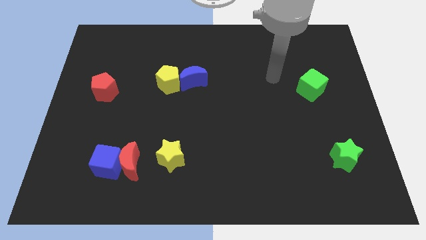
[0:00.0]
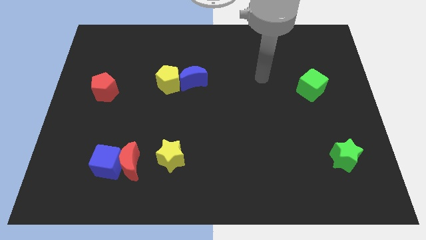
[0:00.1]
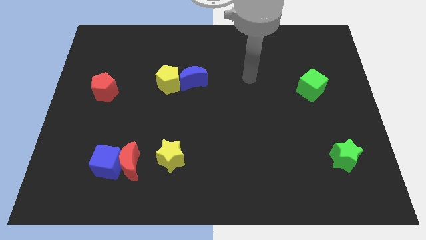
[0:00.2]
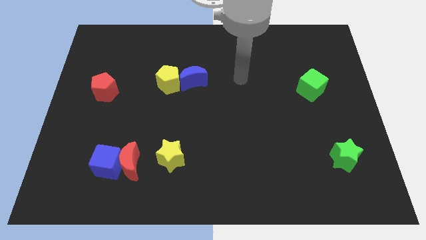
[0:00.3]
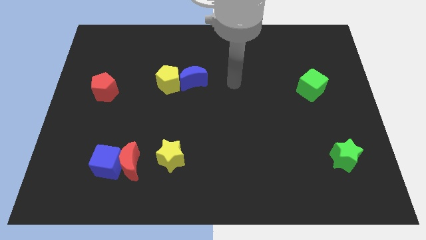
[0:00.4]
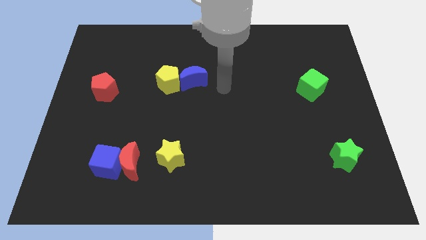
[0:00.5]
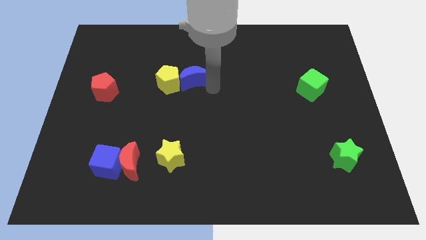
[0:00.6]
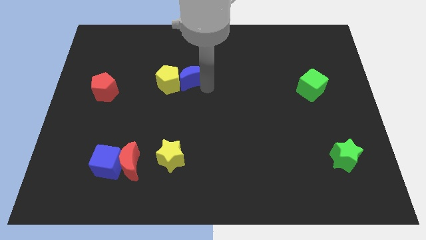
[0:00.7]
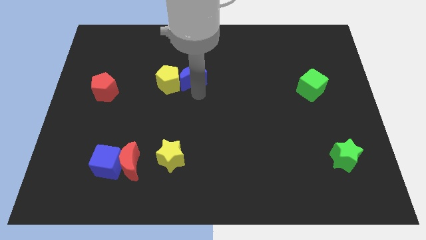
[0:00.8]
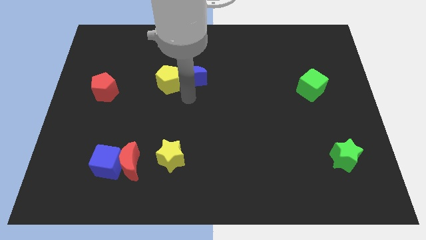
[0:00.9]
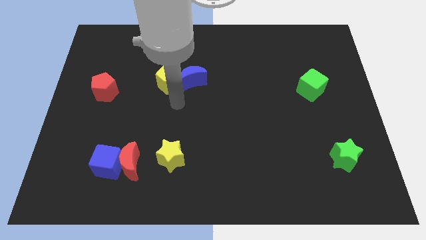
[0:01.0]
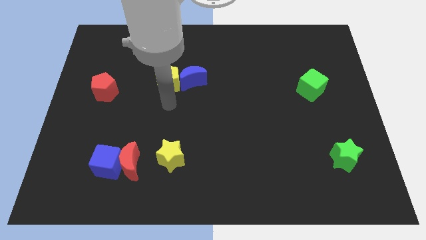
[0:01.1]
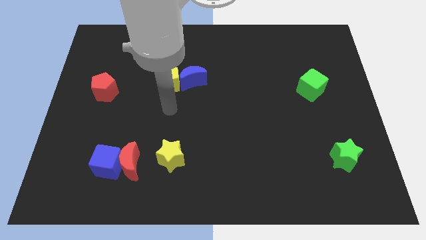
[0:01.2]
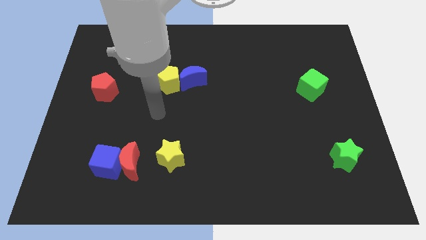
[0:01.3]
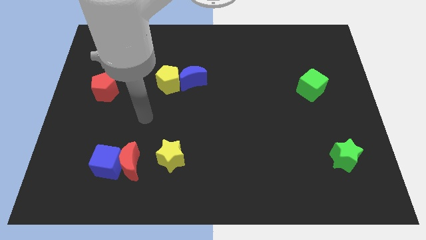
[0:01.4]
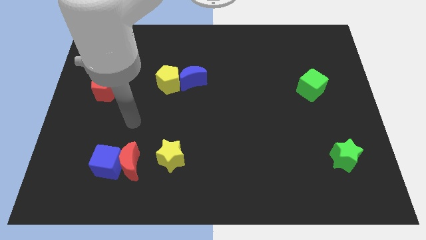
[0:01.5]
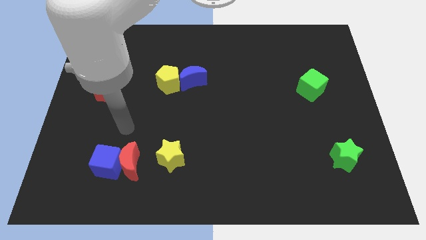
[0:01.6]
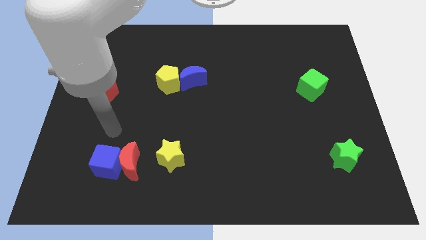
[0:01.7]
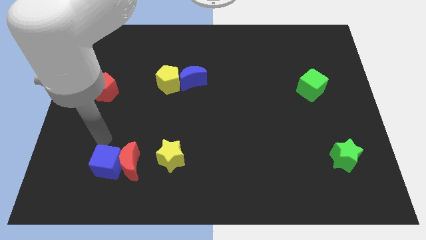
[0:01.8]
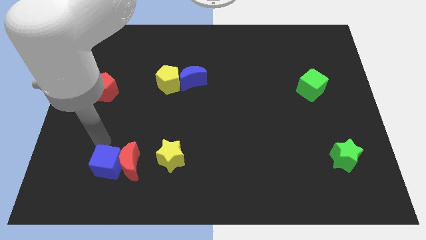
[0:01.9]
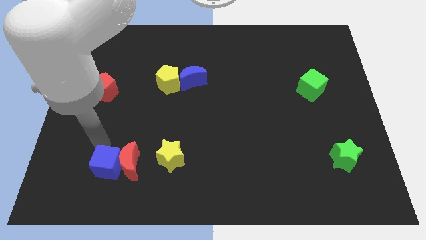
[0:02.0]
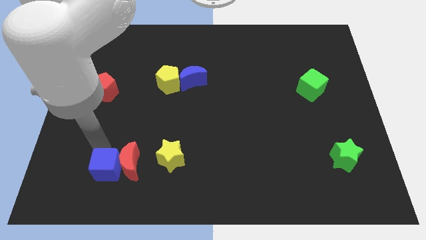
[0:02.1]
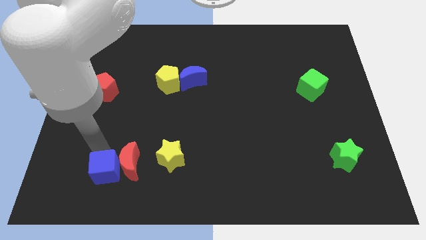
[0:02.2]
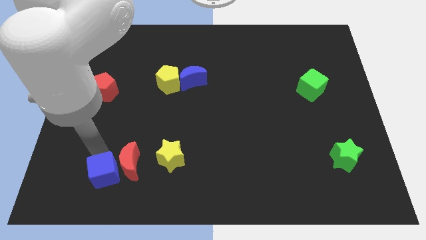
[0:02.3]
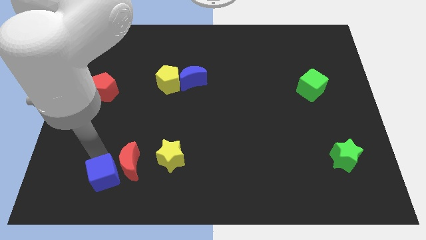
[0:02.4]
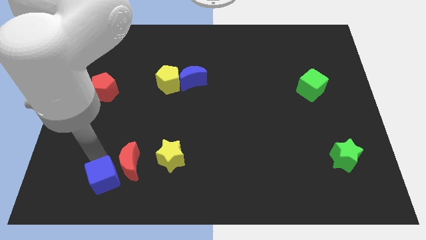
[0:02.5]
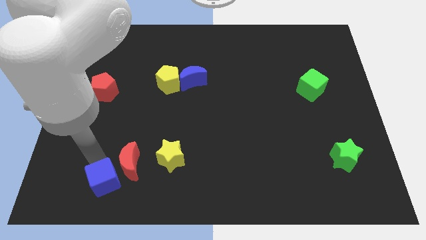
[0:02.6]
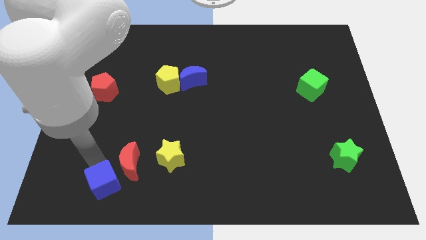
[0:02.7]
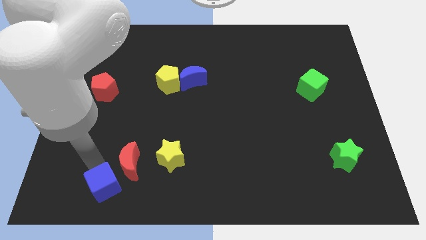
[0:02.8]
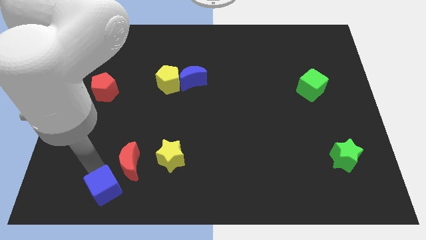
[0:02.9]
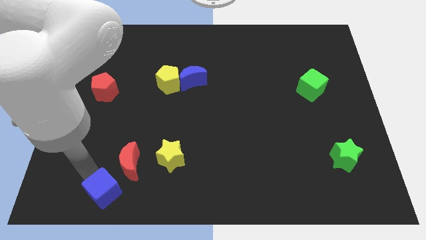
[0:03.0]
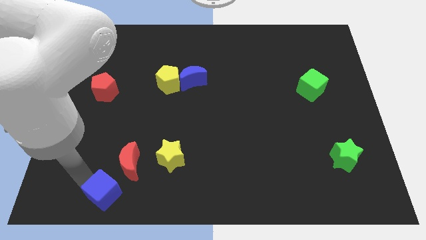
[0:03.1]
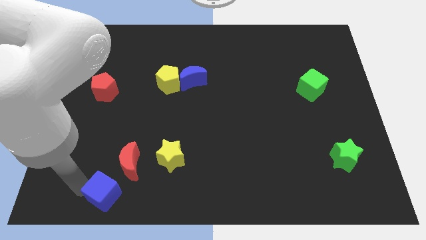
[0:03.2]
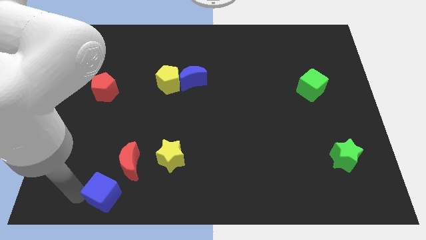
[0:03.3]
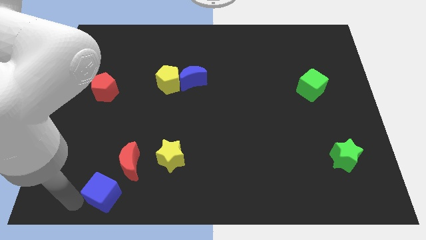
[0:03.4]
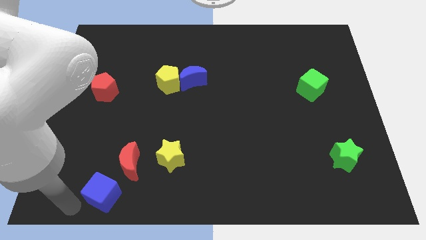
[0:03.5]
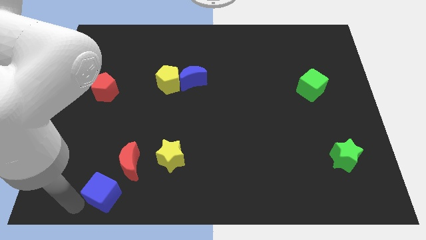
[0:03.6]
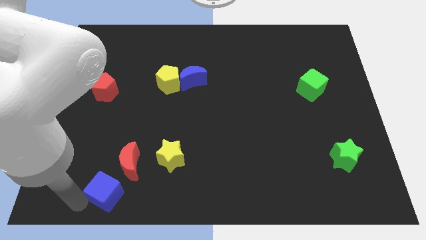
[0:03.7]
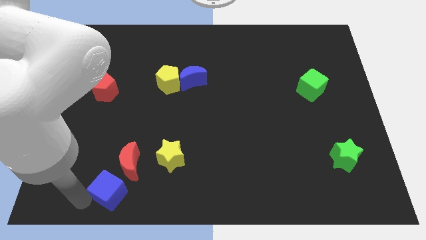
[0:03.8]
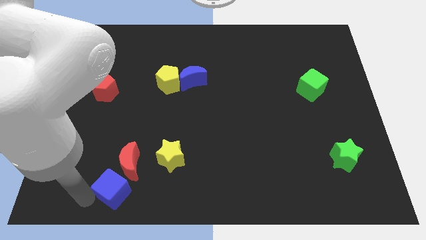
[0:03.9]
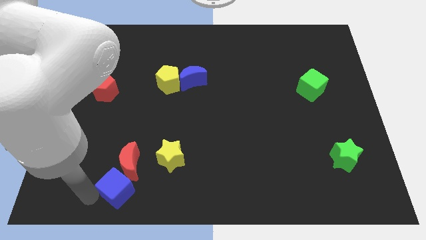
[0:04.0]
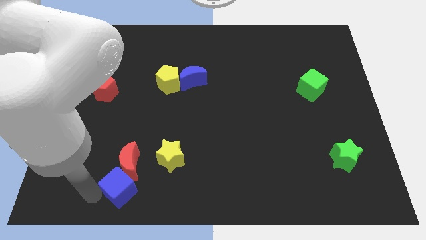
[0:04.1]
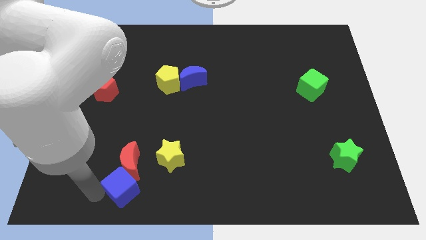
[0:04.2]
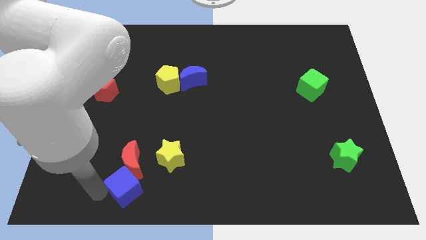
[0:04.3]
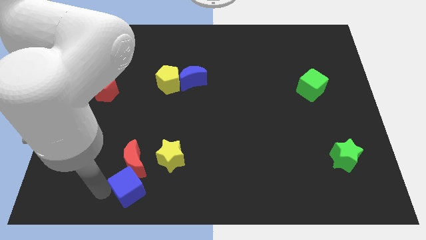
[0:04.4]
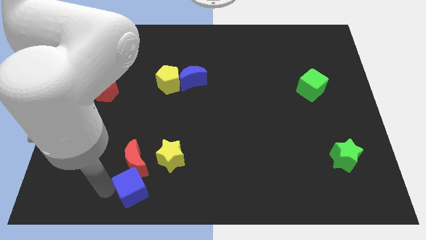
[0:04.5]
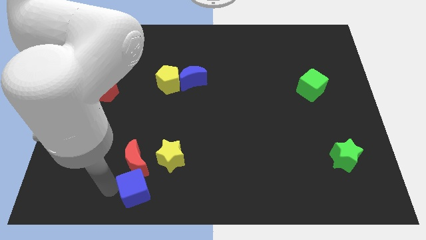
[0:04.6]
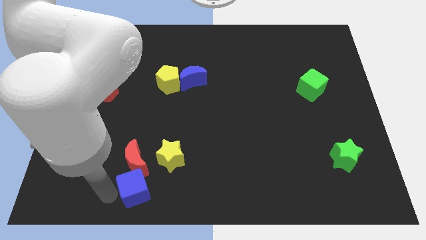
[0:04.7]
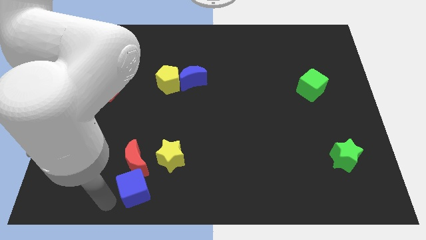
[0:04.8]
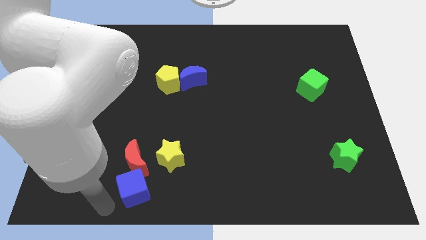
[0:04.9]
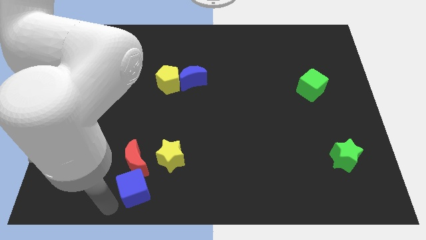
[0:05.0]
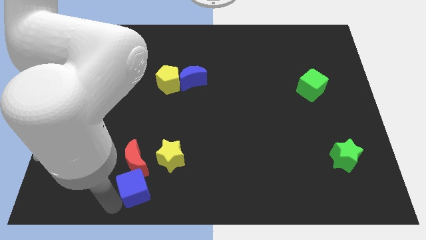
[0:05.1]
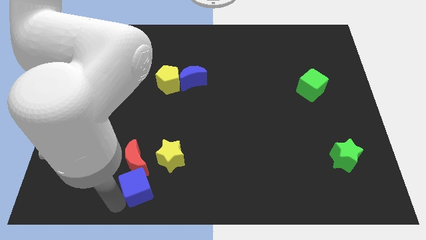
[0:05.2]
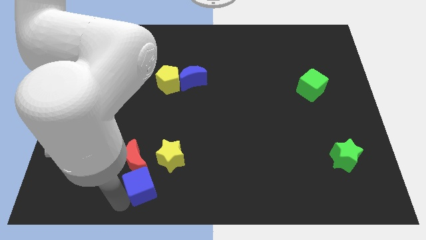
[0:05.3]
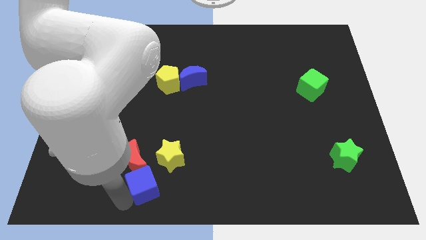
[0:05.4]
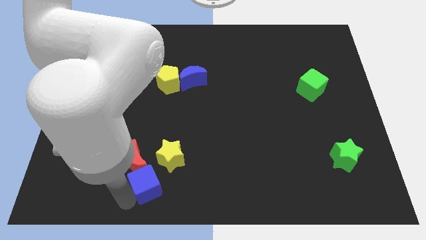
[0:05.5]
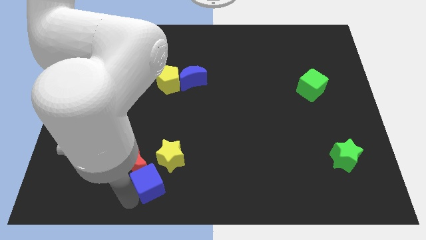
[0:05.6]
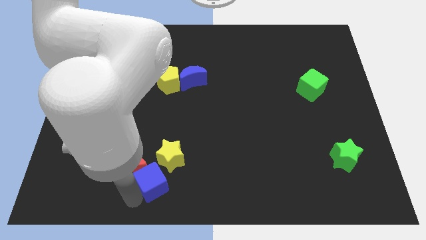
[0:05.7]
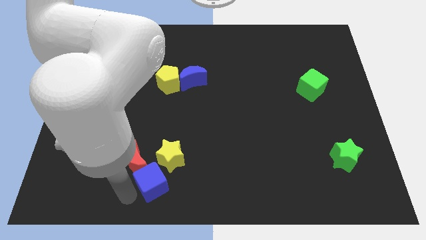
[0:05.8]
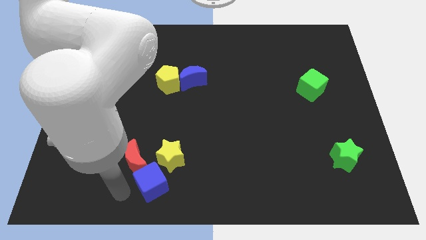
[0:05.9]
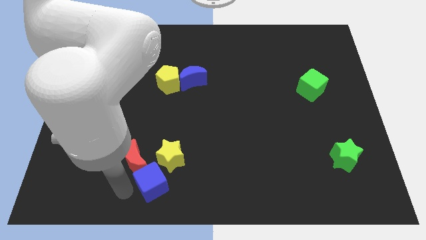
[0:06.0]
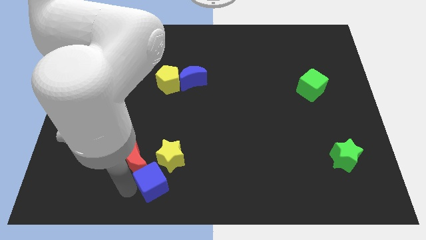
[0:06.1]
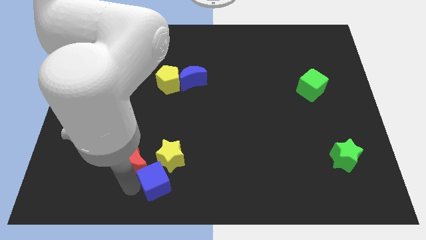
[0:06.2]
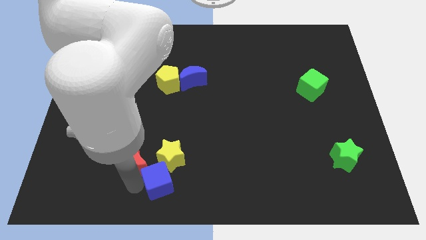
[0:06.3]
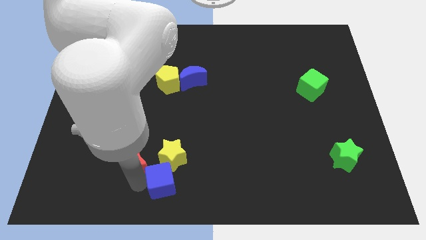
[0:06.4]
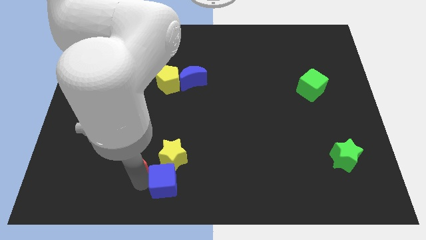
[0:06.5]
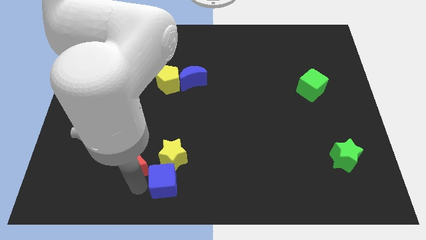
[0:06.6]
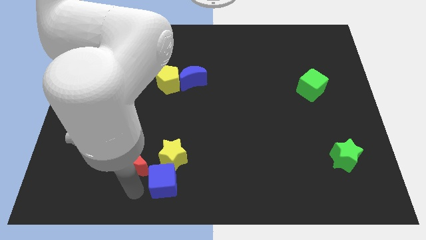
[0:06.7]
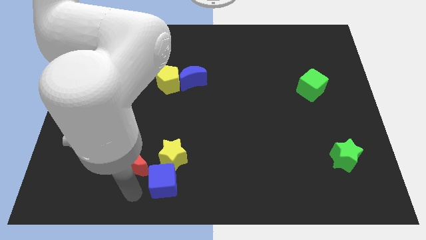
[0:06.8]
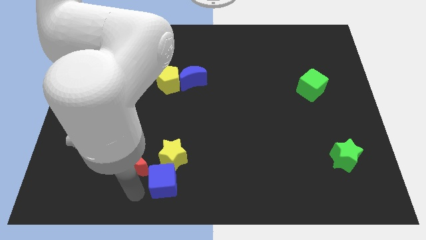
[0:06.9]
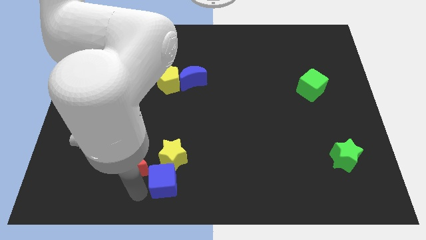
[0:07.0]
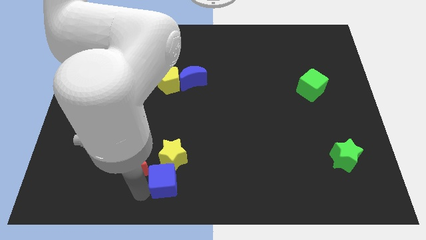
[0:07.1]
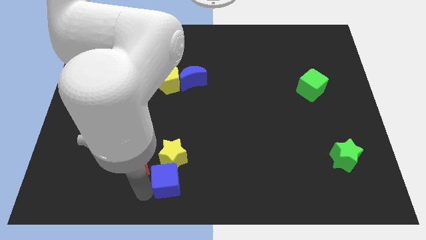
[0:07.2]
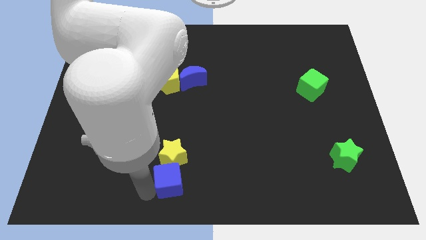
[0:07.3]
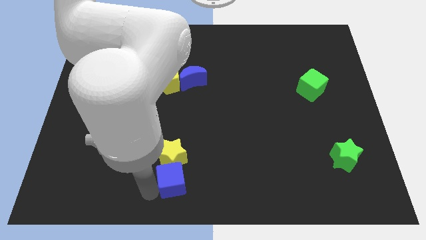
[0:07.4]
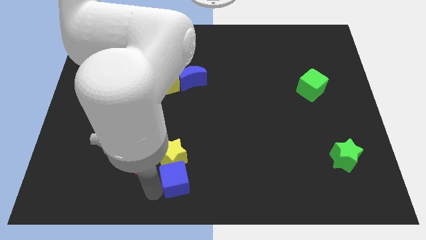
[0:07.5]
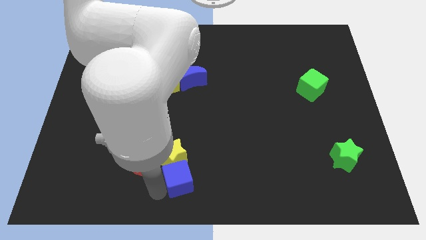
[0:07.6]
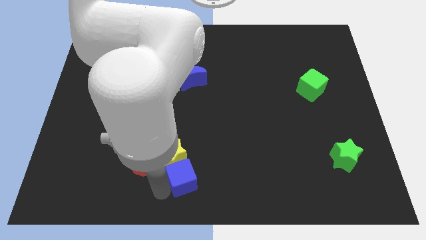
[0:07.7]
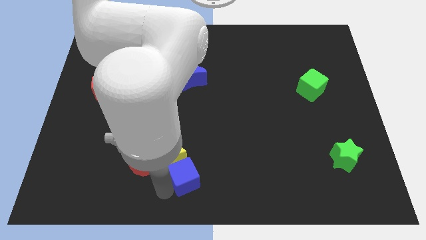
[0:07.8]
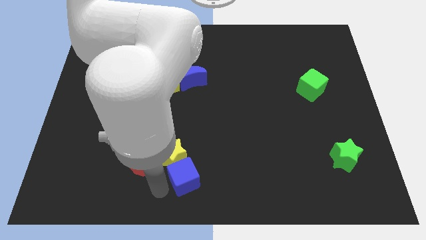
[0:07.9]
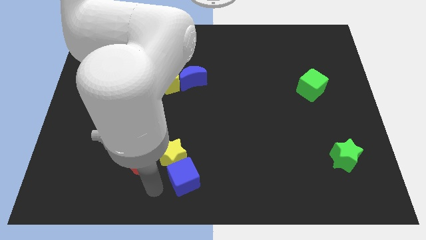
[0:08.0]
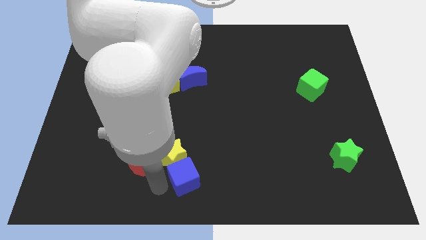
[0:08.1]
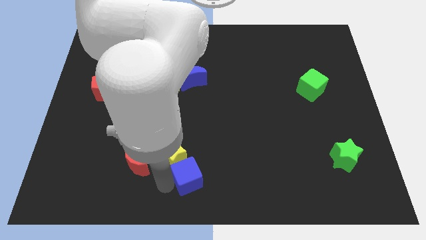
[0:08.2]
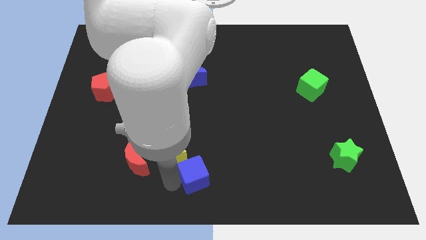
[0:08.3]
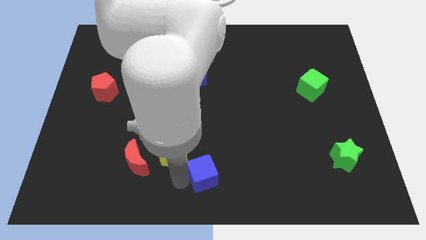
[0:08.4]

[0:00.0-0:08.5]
slide the blue cube to the right
